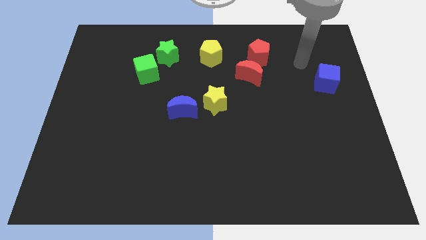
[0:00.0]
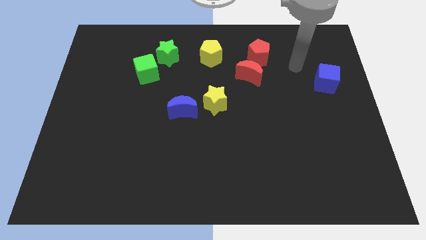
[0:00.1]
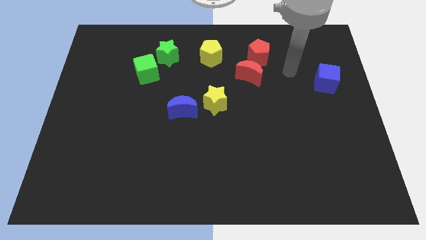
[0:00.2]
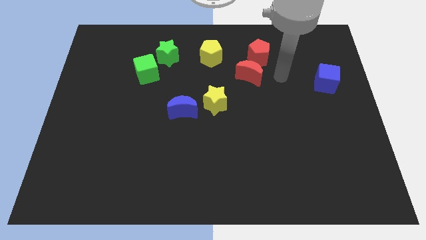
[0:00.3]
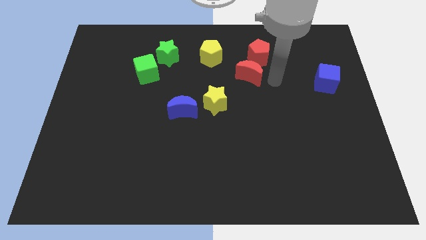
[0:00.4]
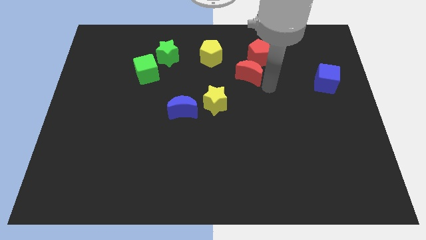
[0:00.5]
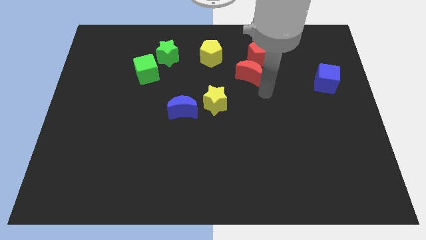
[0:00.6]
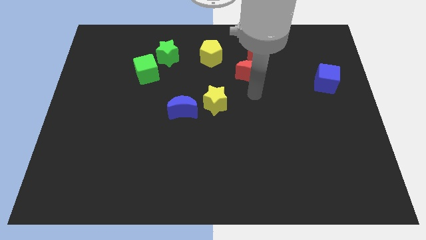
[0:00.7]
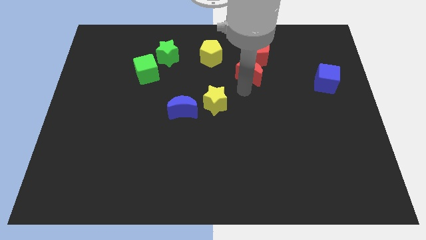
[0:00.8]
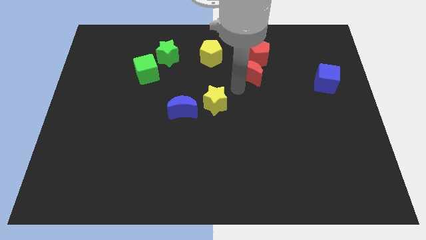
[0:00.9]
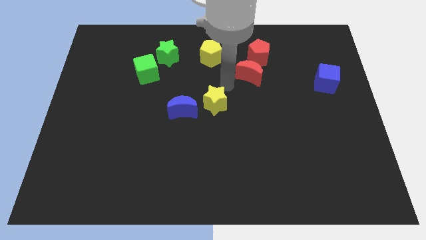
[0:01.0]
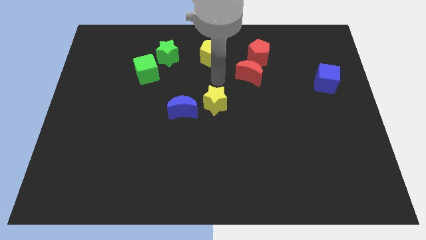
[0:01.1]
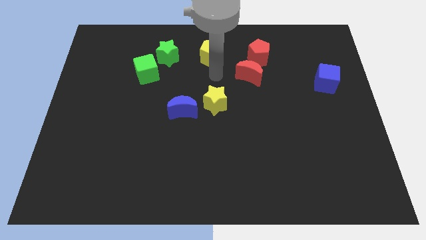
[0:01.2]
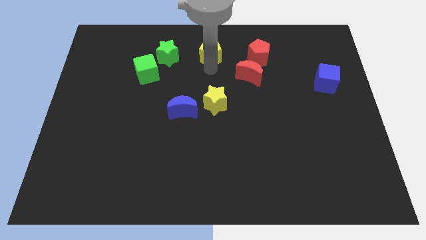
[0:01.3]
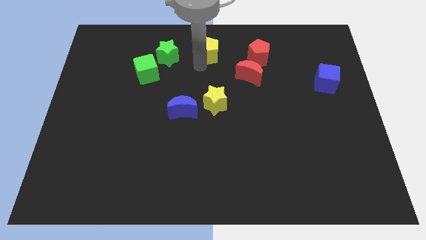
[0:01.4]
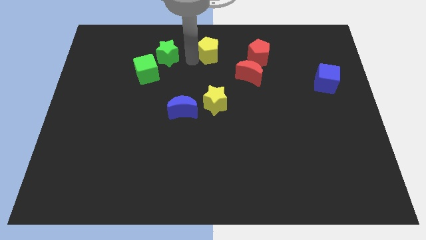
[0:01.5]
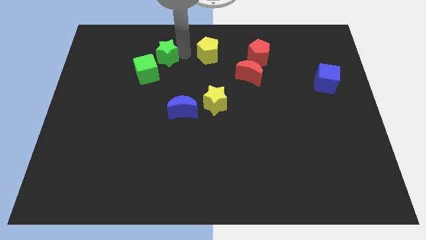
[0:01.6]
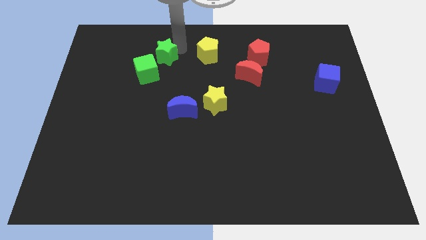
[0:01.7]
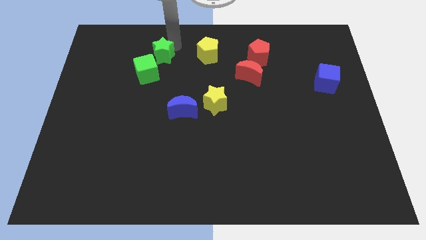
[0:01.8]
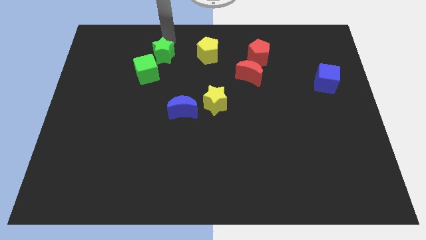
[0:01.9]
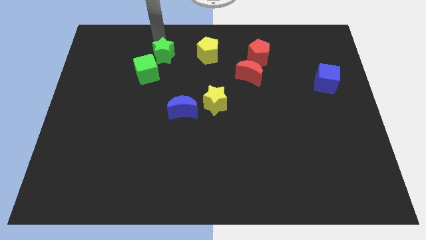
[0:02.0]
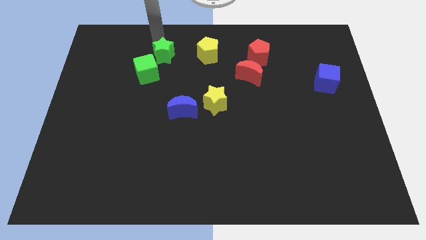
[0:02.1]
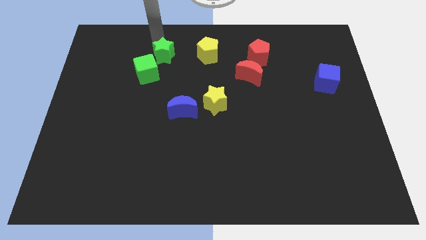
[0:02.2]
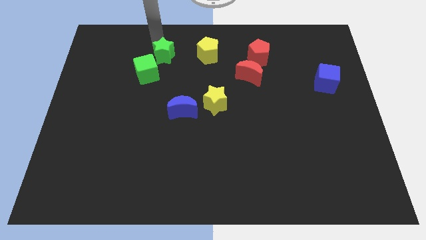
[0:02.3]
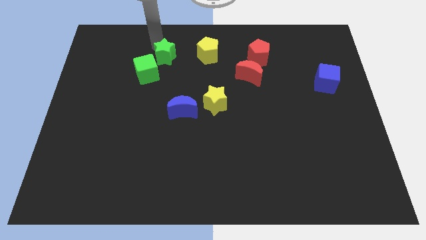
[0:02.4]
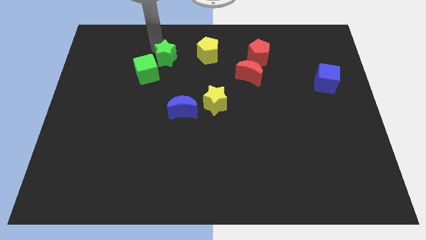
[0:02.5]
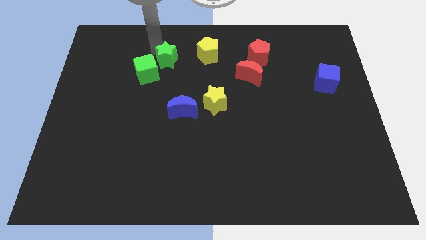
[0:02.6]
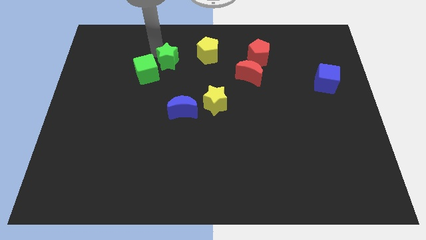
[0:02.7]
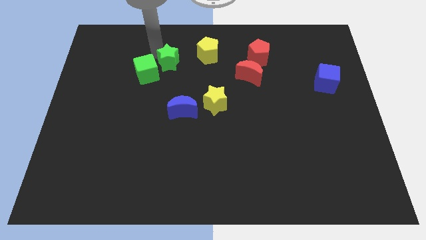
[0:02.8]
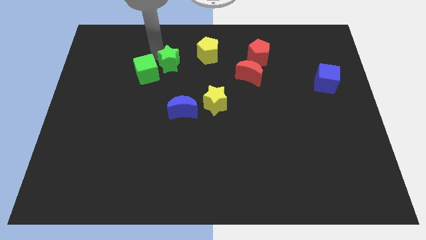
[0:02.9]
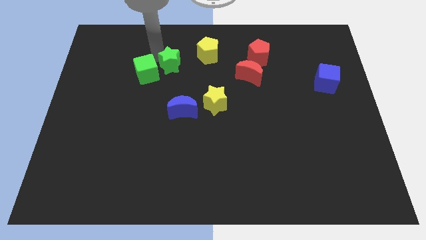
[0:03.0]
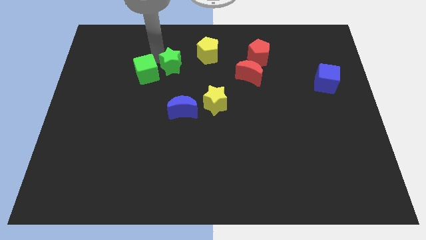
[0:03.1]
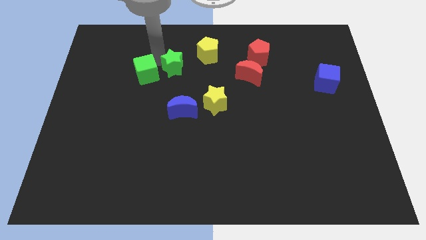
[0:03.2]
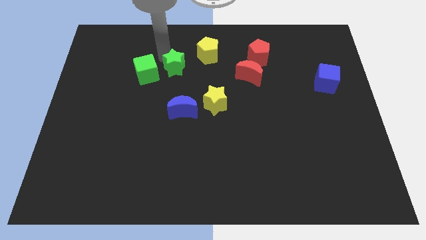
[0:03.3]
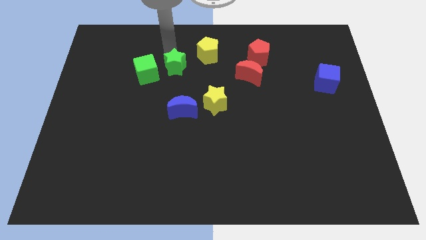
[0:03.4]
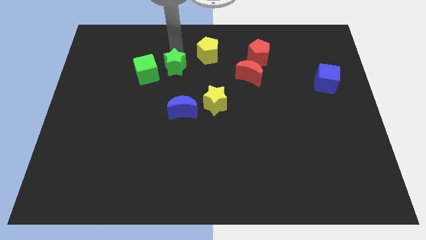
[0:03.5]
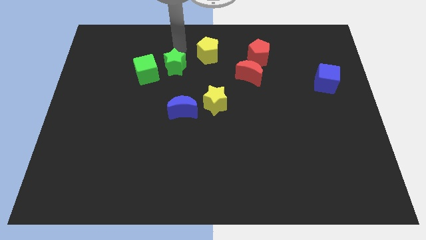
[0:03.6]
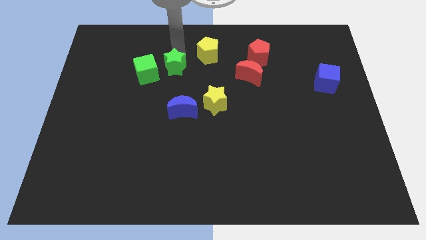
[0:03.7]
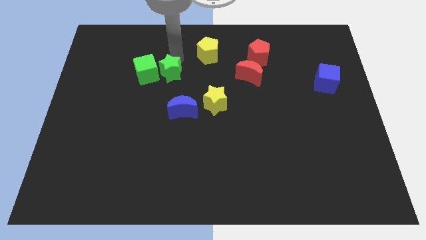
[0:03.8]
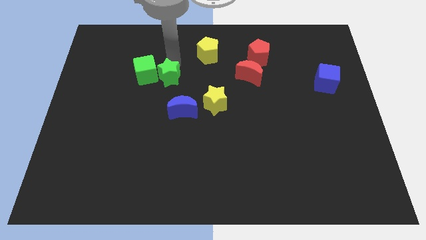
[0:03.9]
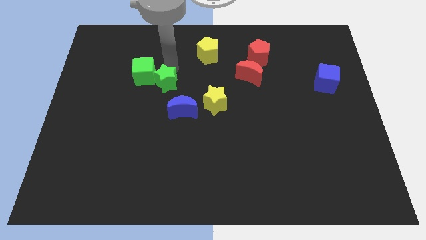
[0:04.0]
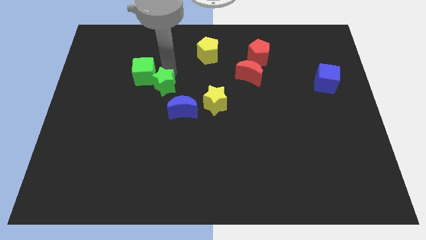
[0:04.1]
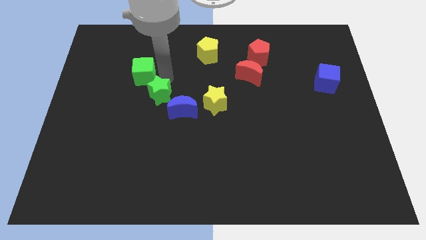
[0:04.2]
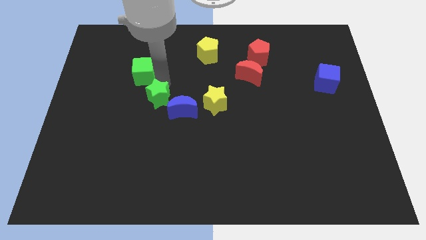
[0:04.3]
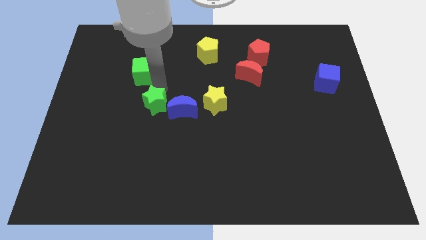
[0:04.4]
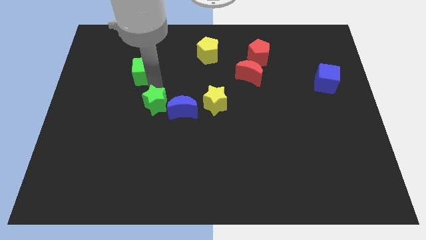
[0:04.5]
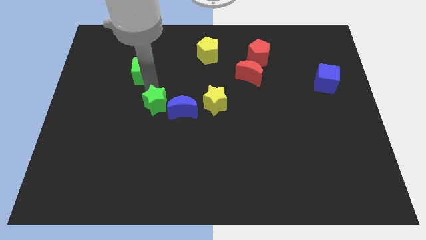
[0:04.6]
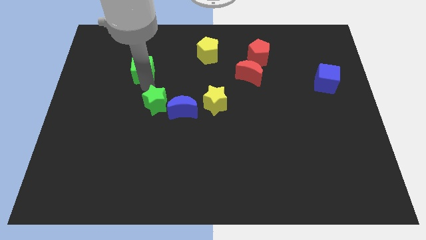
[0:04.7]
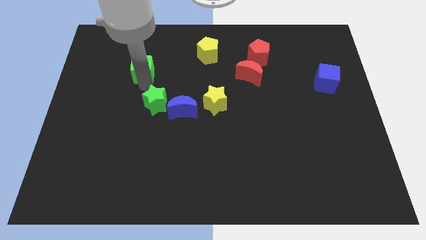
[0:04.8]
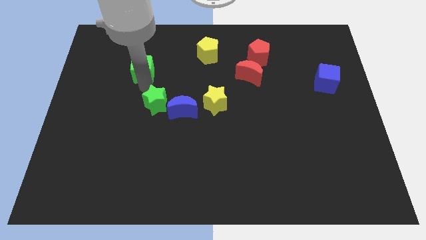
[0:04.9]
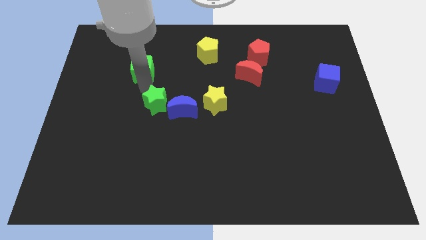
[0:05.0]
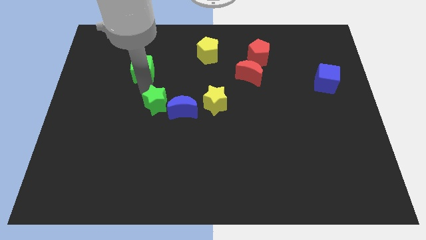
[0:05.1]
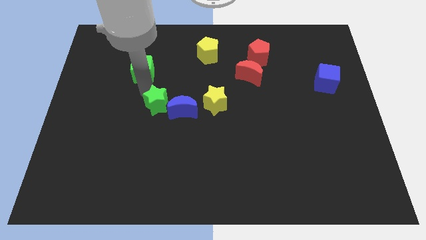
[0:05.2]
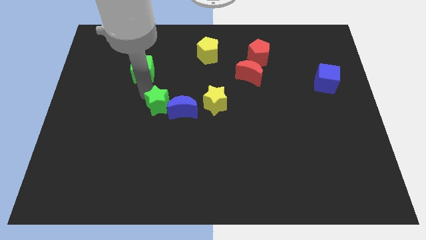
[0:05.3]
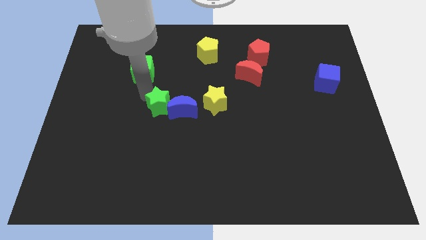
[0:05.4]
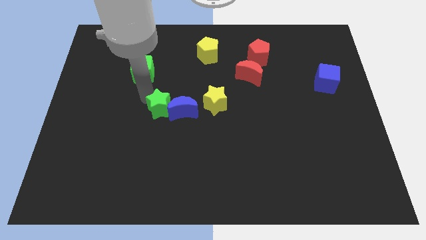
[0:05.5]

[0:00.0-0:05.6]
push the green star to the bottom left side of the blue moon

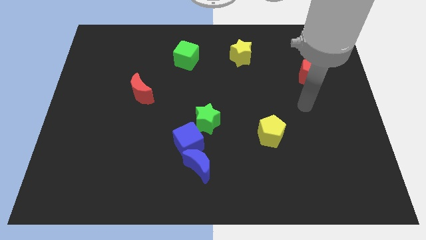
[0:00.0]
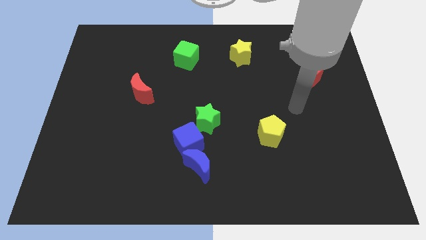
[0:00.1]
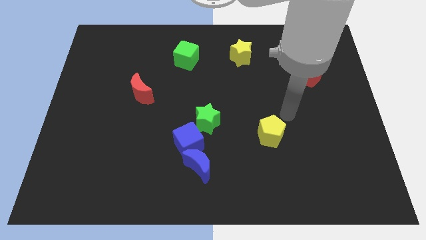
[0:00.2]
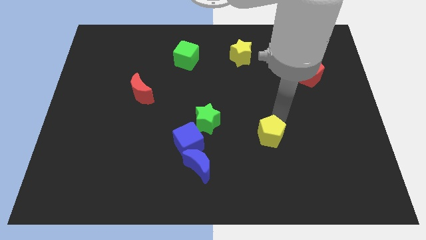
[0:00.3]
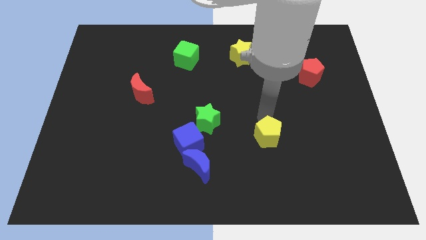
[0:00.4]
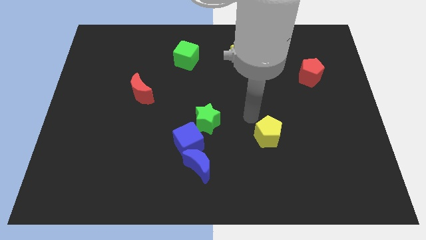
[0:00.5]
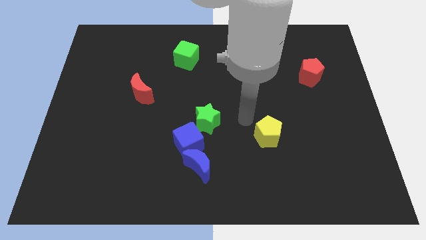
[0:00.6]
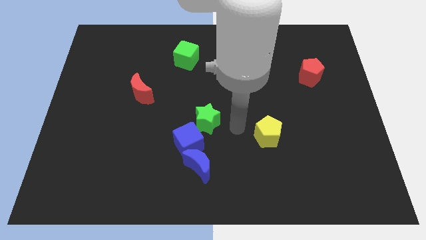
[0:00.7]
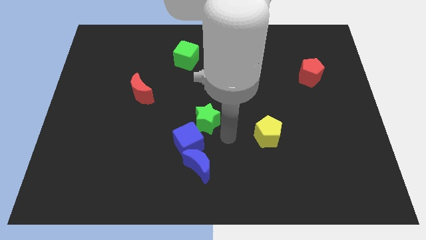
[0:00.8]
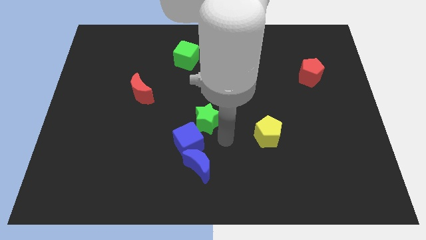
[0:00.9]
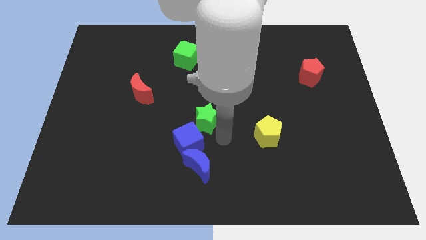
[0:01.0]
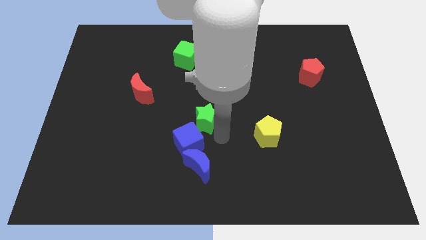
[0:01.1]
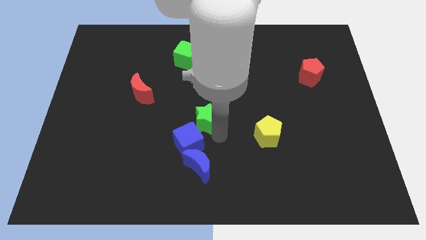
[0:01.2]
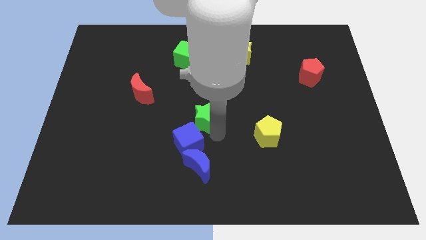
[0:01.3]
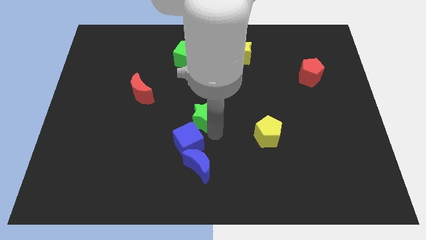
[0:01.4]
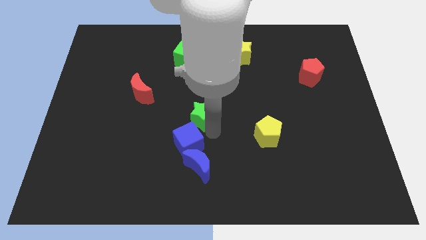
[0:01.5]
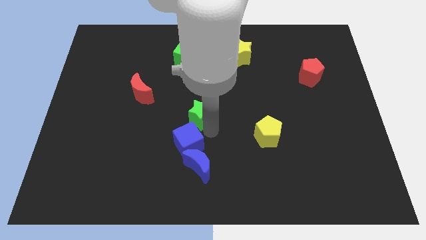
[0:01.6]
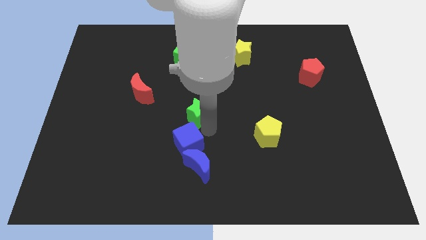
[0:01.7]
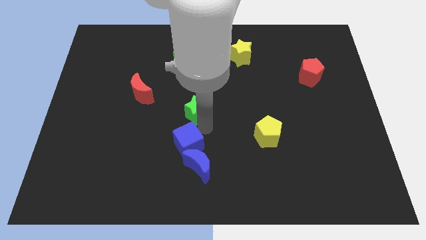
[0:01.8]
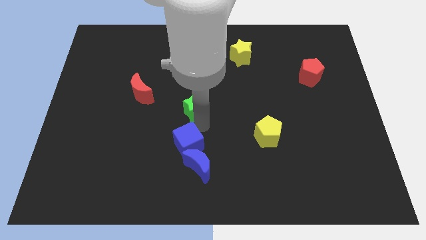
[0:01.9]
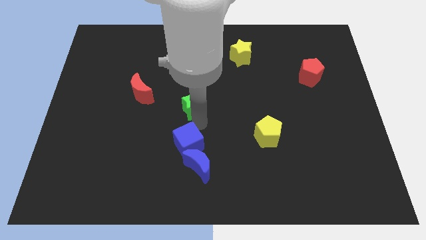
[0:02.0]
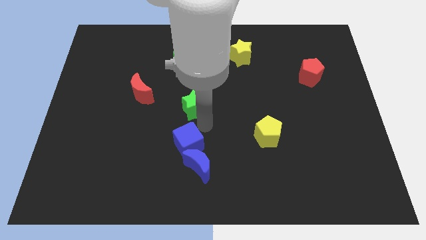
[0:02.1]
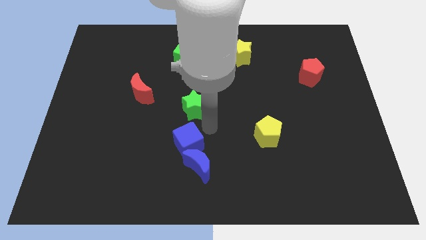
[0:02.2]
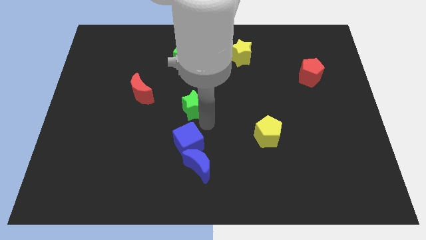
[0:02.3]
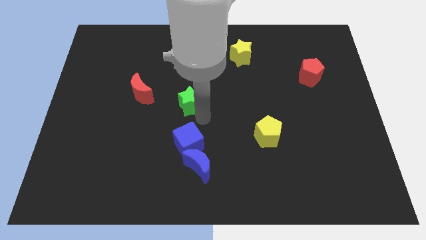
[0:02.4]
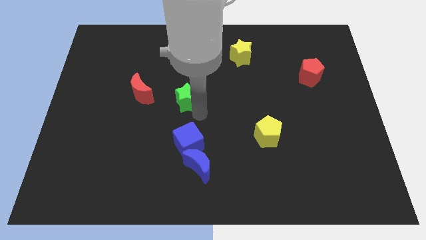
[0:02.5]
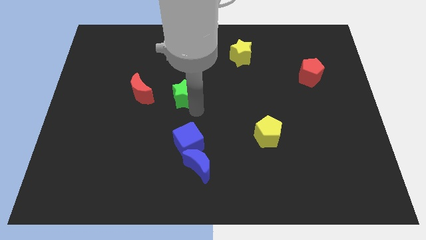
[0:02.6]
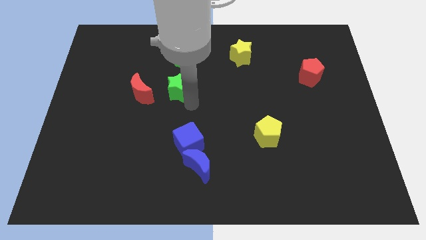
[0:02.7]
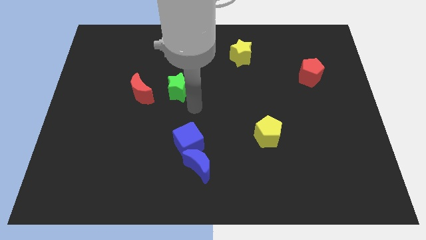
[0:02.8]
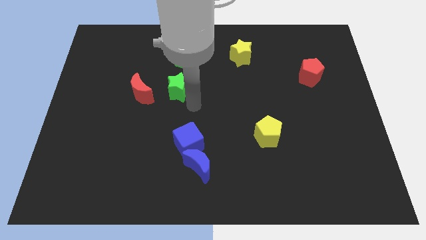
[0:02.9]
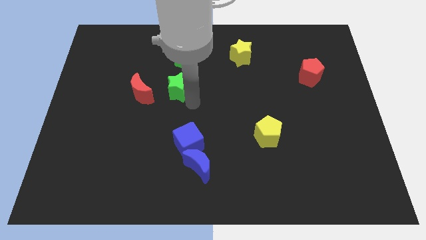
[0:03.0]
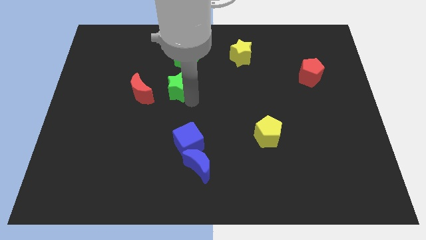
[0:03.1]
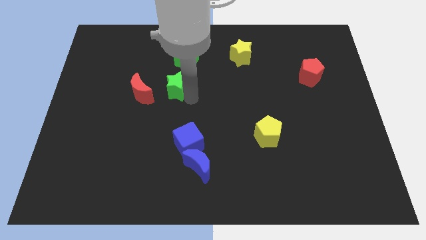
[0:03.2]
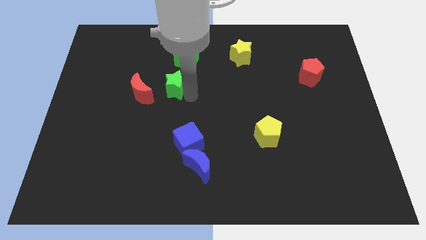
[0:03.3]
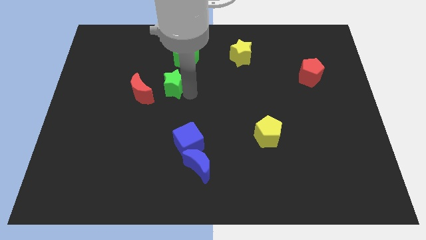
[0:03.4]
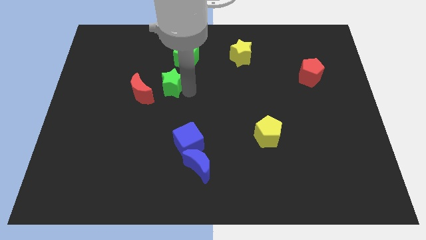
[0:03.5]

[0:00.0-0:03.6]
move the green star to the bottom left side of the green cube
